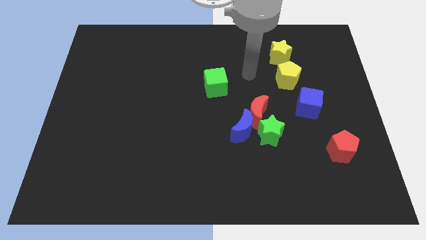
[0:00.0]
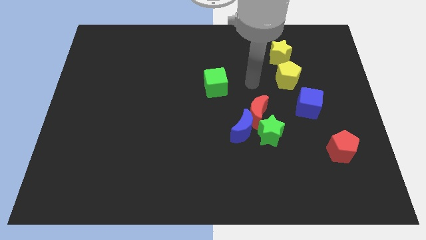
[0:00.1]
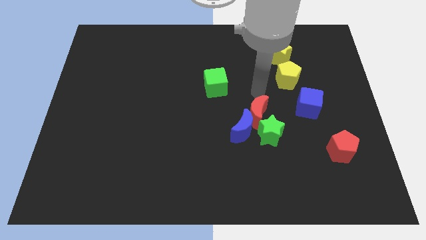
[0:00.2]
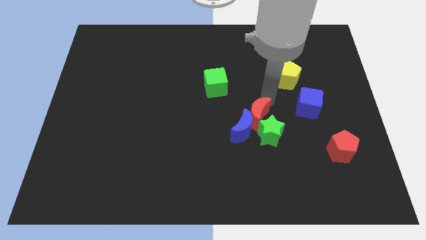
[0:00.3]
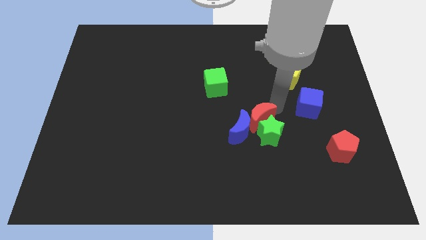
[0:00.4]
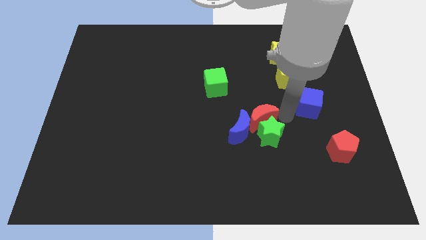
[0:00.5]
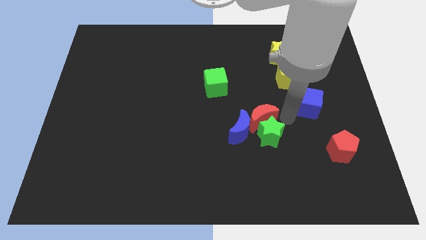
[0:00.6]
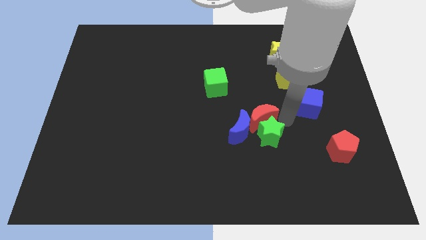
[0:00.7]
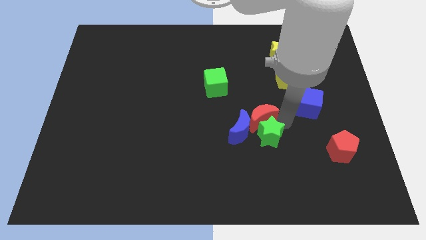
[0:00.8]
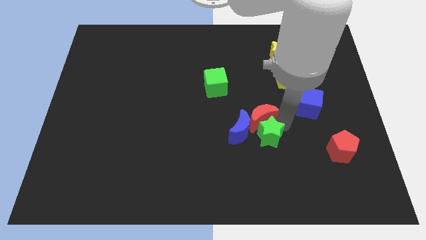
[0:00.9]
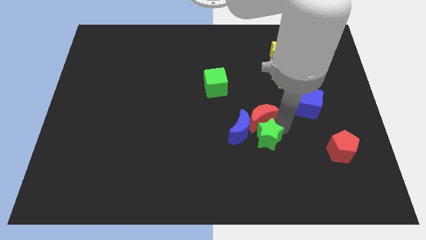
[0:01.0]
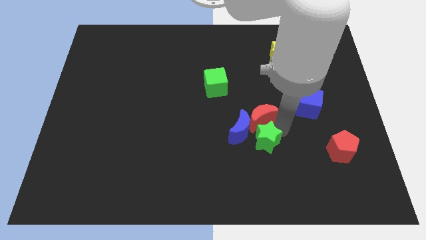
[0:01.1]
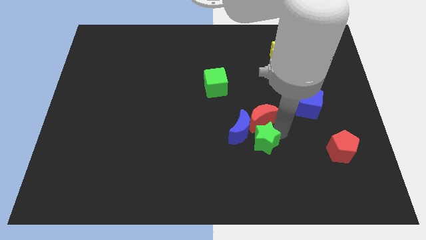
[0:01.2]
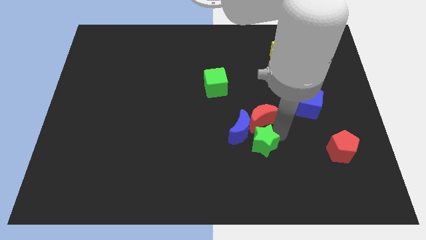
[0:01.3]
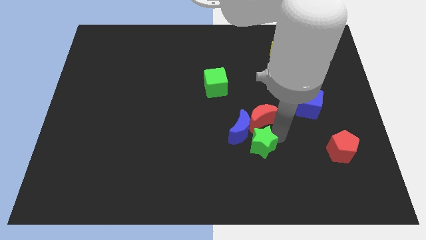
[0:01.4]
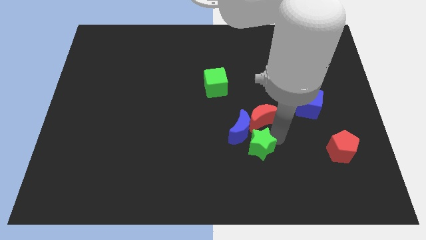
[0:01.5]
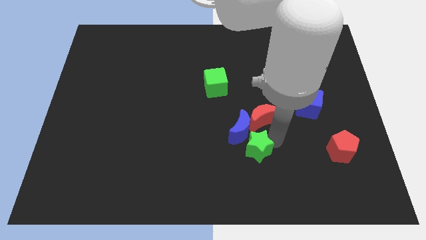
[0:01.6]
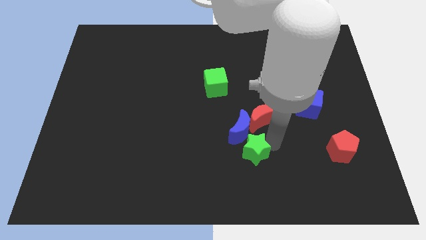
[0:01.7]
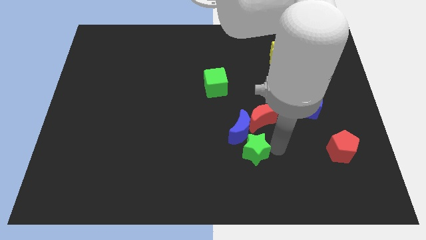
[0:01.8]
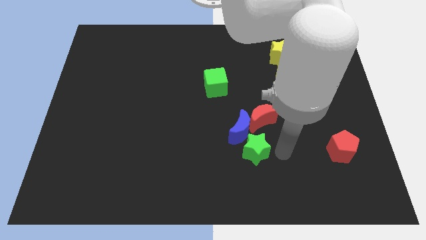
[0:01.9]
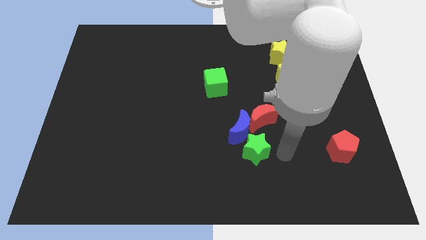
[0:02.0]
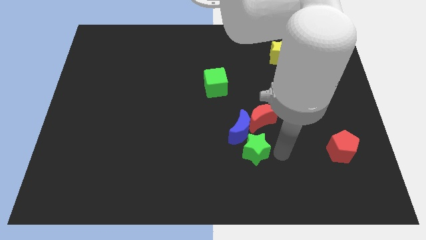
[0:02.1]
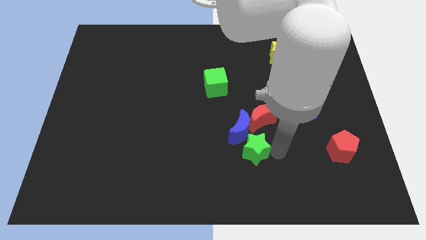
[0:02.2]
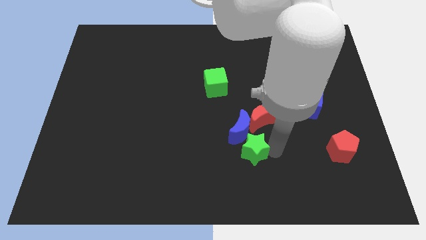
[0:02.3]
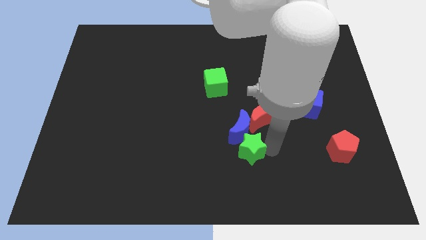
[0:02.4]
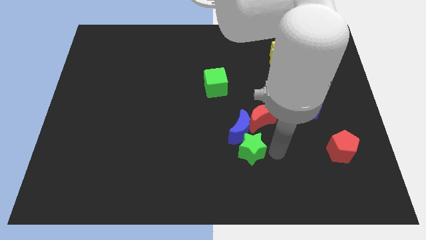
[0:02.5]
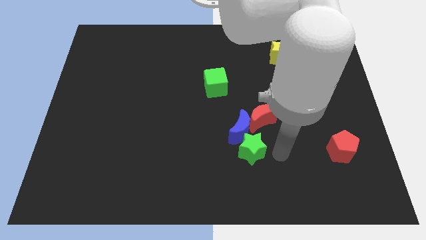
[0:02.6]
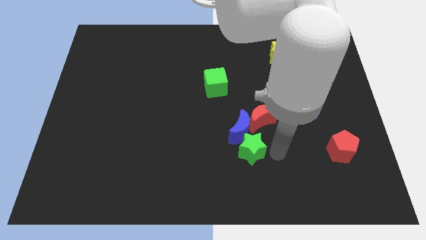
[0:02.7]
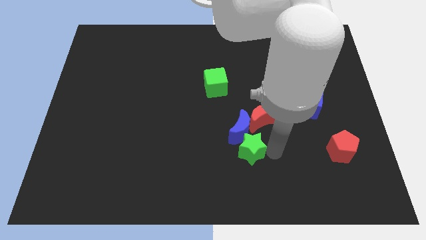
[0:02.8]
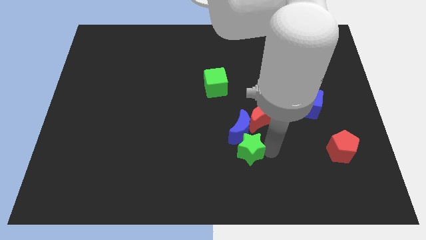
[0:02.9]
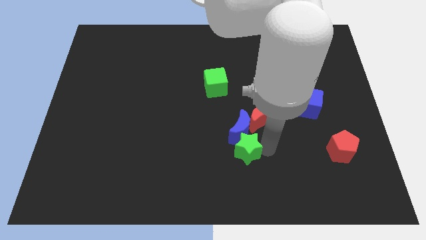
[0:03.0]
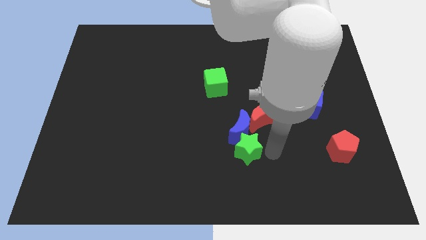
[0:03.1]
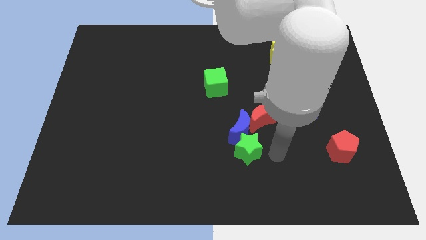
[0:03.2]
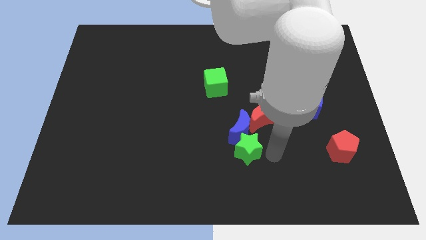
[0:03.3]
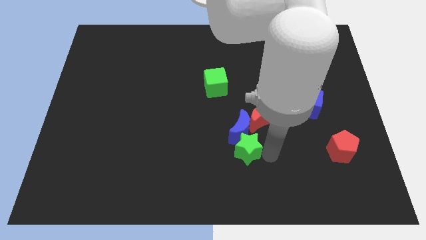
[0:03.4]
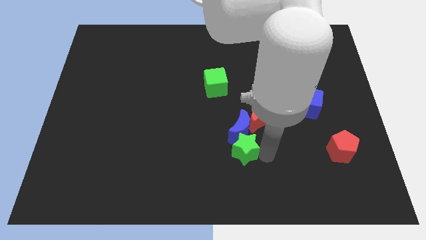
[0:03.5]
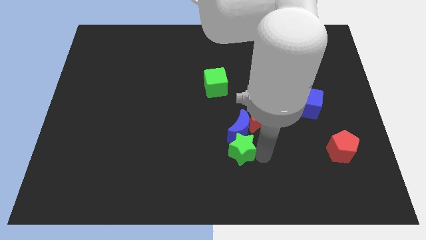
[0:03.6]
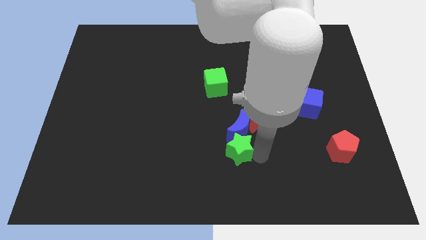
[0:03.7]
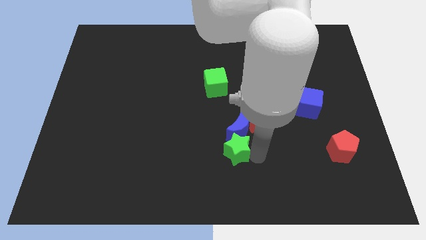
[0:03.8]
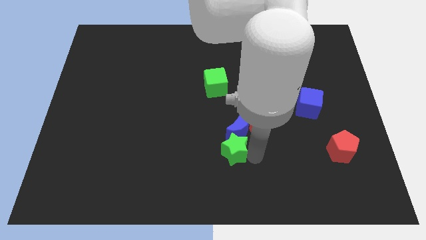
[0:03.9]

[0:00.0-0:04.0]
move the green star a little bit to the left

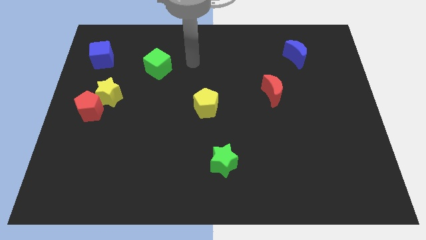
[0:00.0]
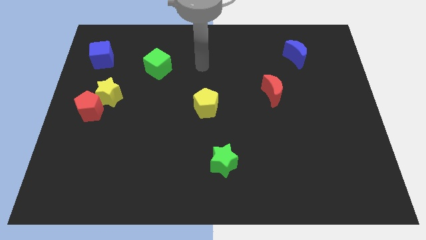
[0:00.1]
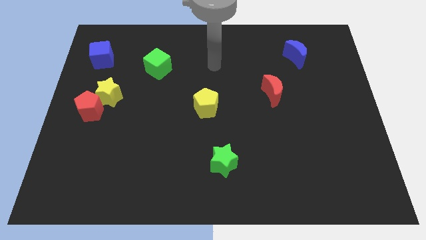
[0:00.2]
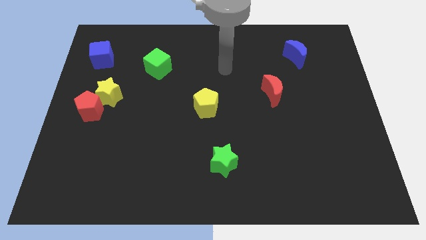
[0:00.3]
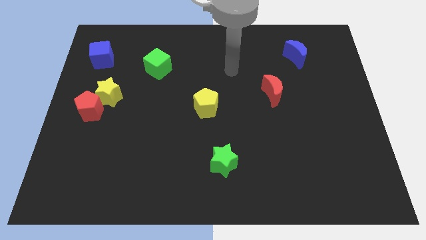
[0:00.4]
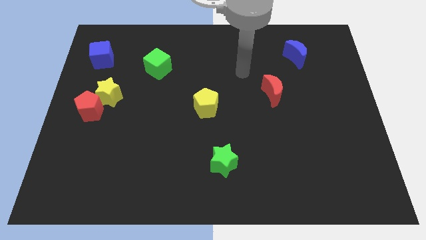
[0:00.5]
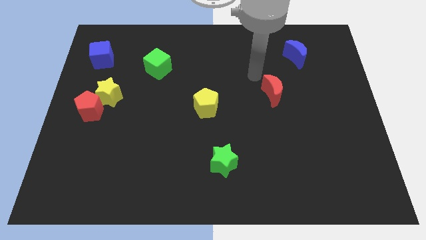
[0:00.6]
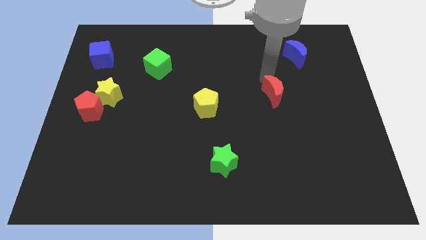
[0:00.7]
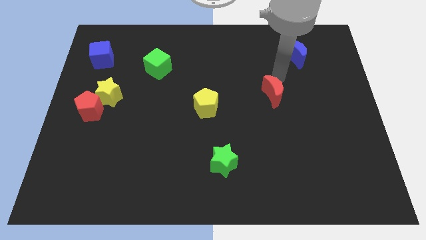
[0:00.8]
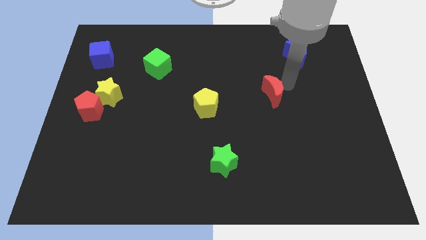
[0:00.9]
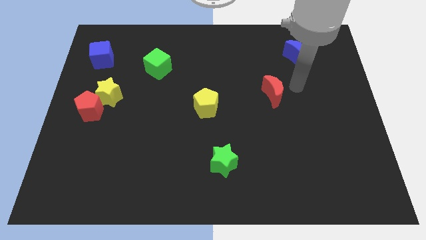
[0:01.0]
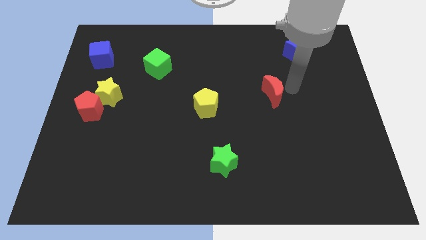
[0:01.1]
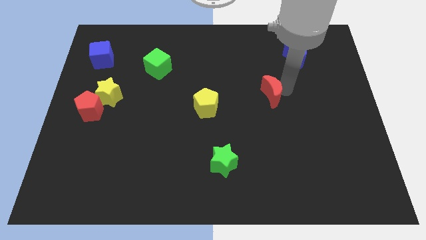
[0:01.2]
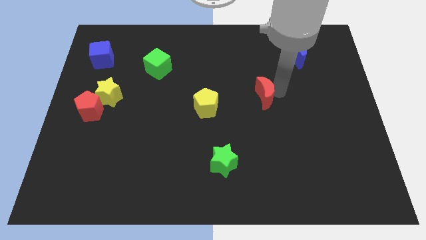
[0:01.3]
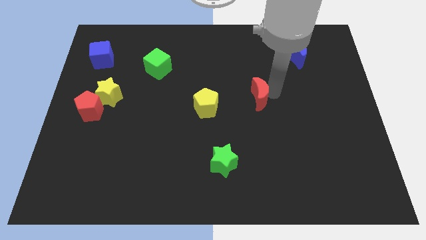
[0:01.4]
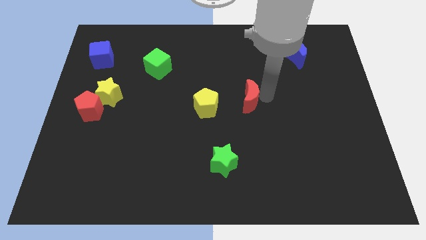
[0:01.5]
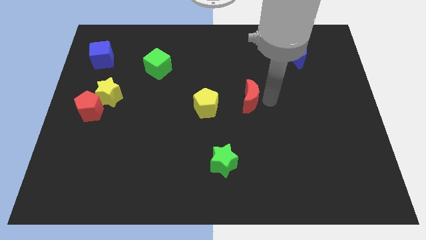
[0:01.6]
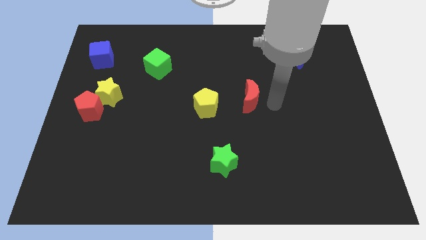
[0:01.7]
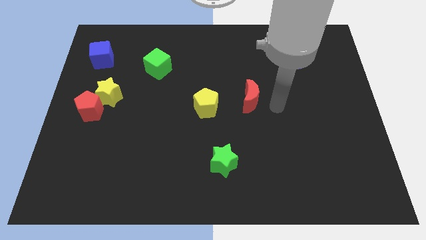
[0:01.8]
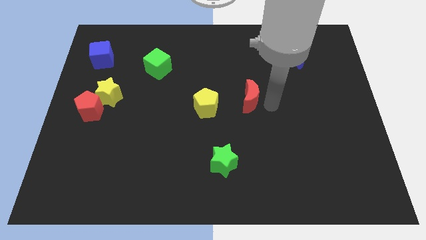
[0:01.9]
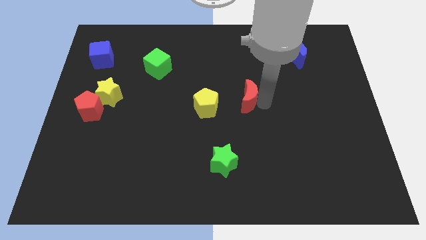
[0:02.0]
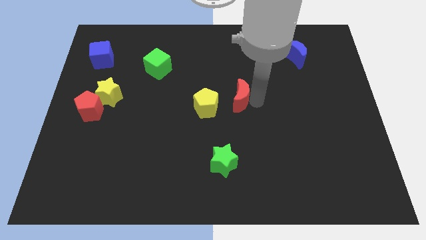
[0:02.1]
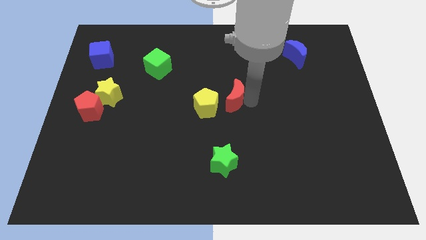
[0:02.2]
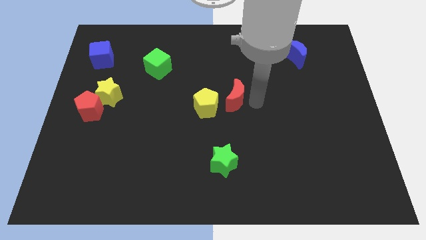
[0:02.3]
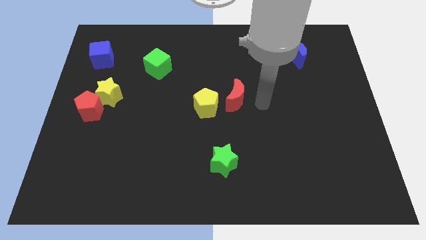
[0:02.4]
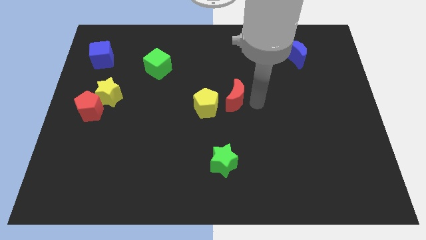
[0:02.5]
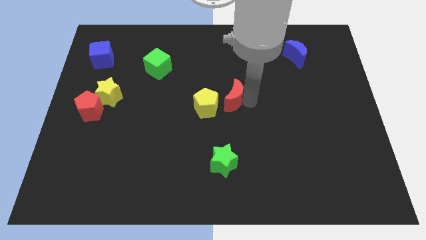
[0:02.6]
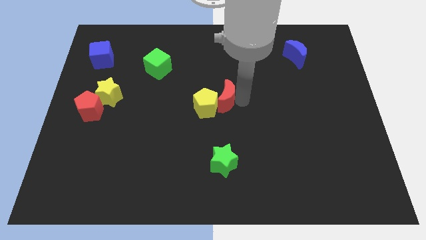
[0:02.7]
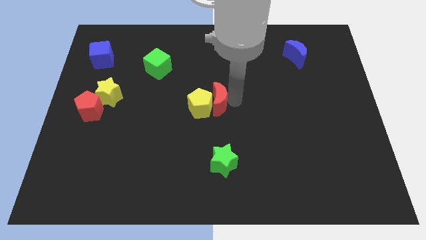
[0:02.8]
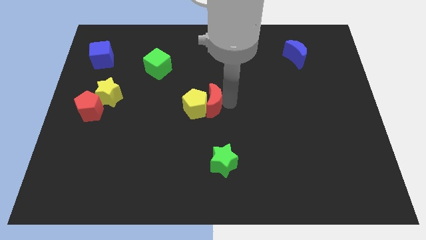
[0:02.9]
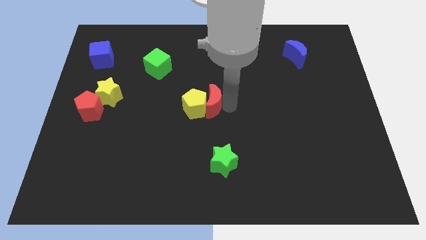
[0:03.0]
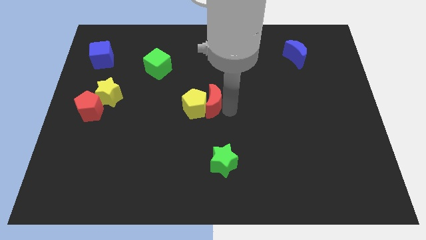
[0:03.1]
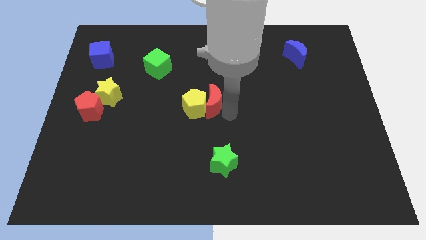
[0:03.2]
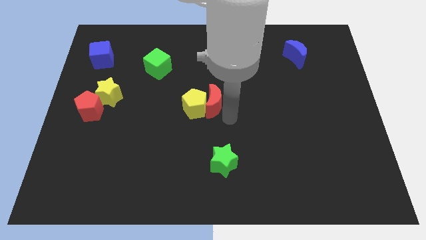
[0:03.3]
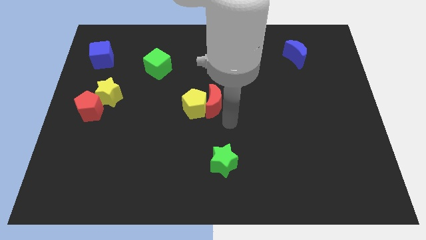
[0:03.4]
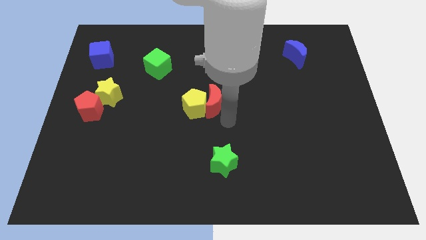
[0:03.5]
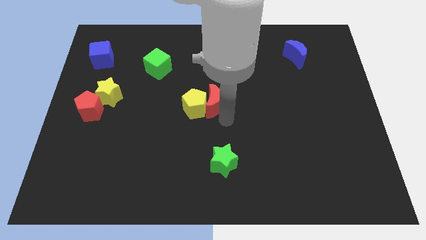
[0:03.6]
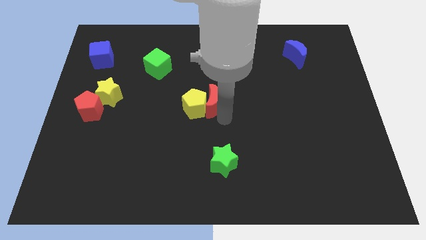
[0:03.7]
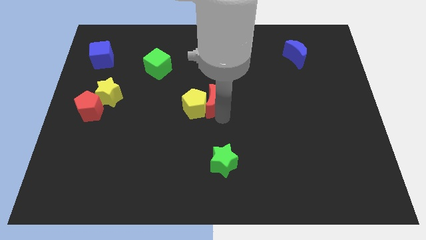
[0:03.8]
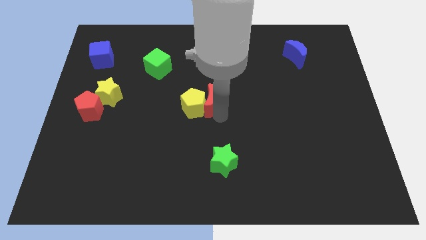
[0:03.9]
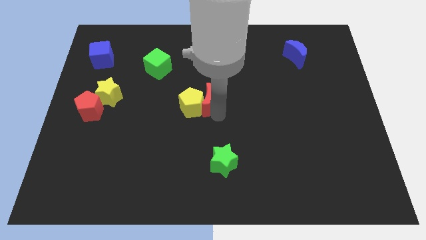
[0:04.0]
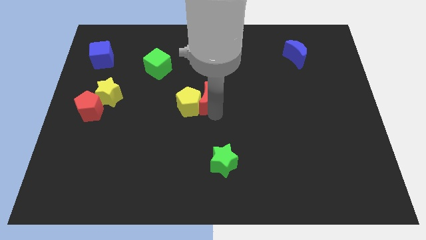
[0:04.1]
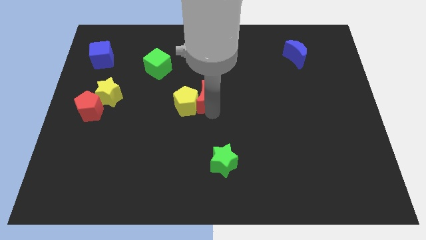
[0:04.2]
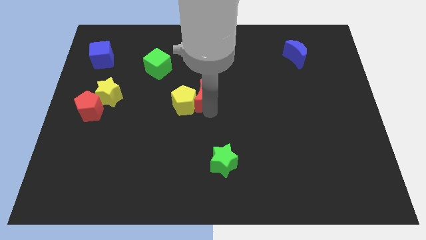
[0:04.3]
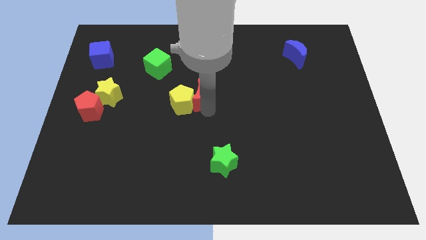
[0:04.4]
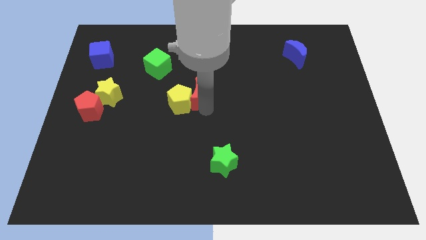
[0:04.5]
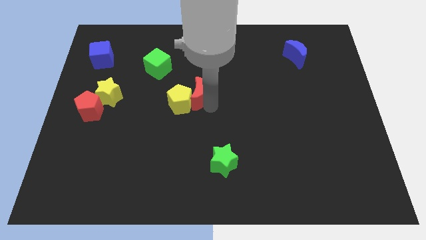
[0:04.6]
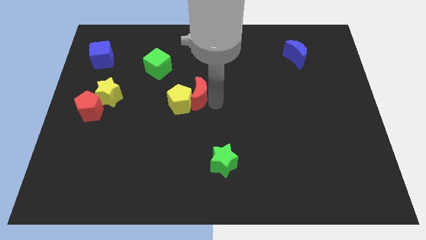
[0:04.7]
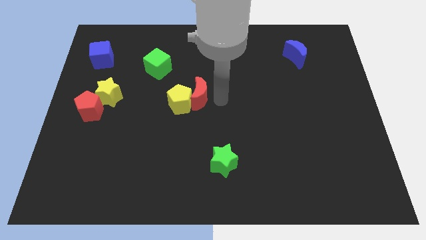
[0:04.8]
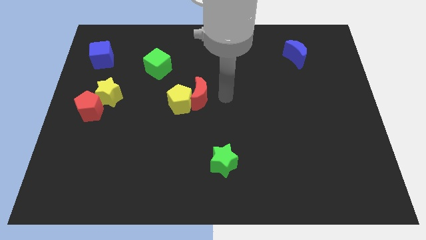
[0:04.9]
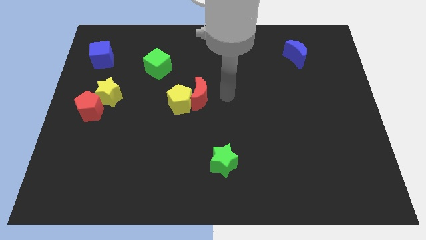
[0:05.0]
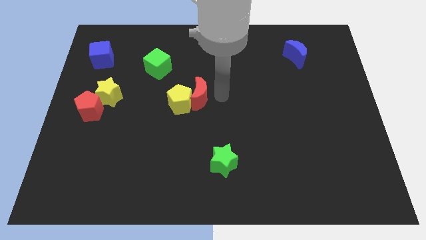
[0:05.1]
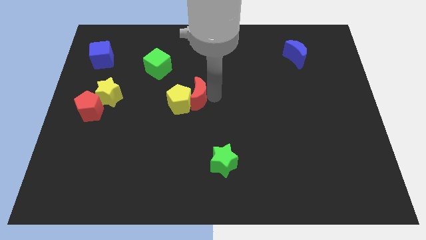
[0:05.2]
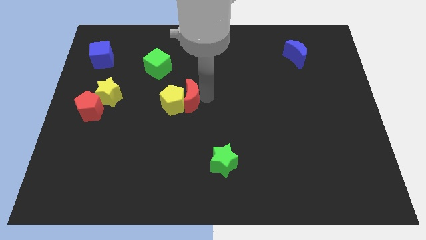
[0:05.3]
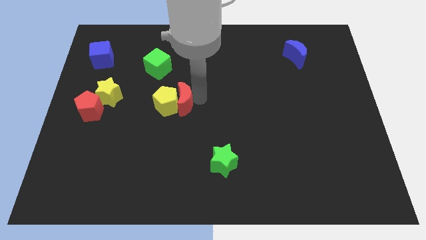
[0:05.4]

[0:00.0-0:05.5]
push the red moon left
